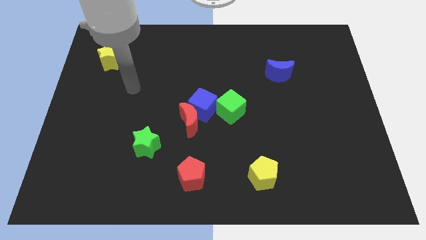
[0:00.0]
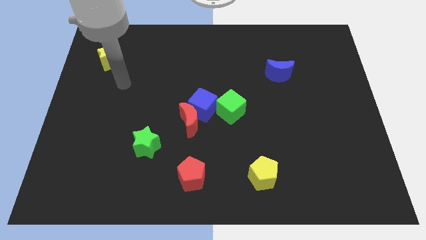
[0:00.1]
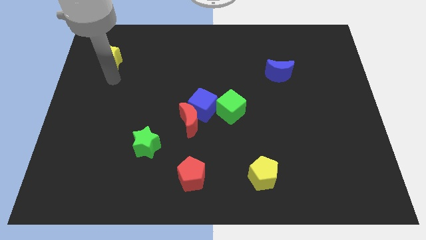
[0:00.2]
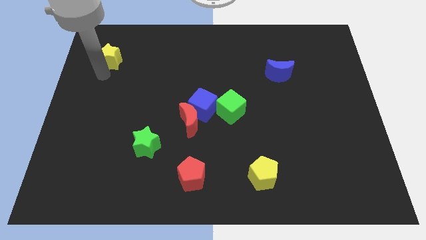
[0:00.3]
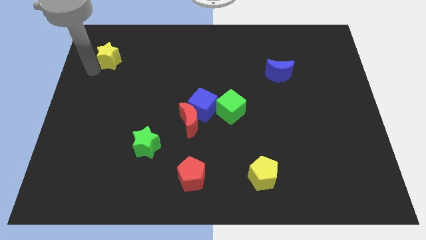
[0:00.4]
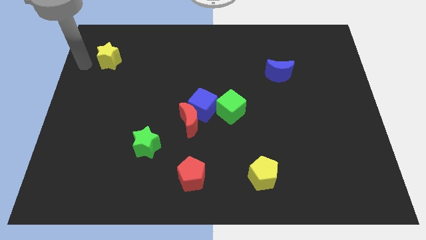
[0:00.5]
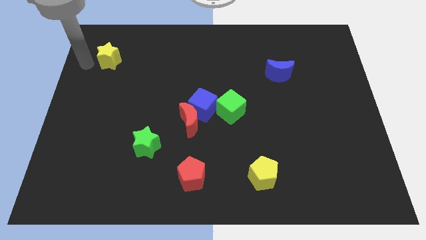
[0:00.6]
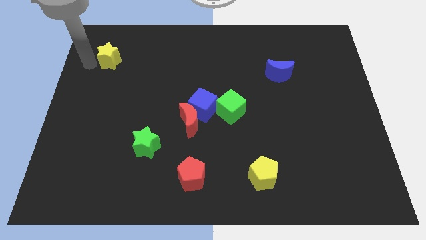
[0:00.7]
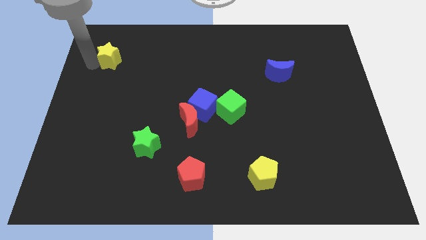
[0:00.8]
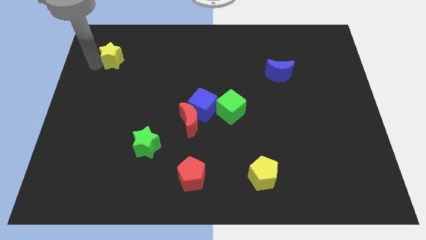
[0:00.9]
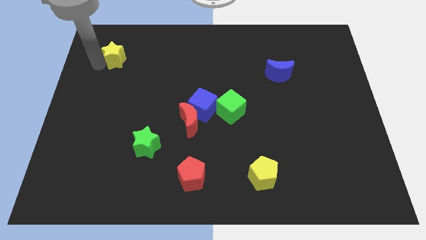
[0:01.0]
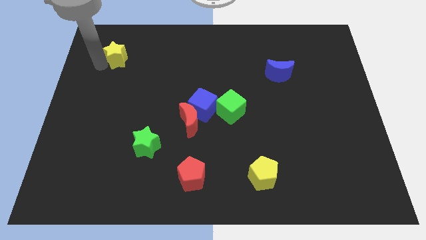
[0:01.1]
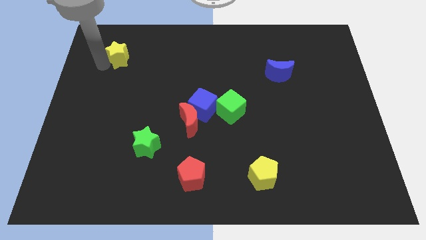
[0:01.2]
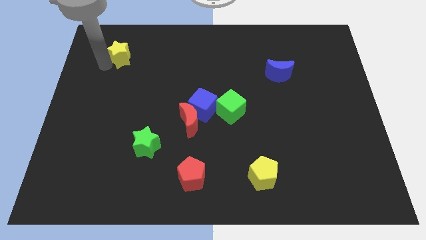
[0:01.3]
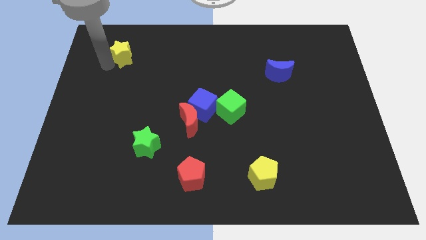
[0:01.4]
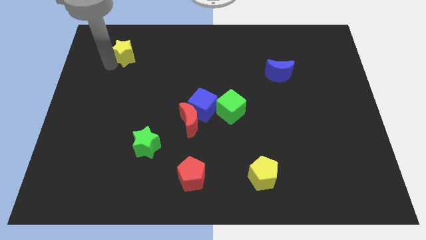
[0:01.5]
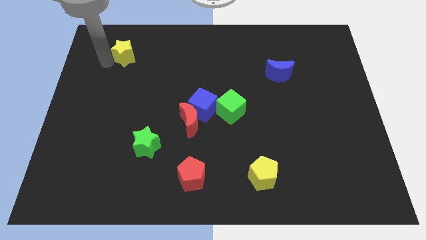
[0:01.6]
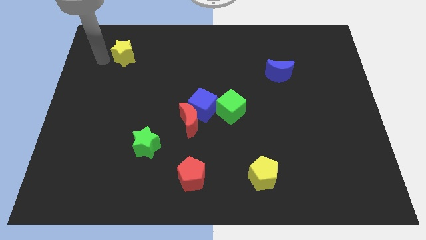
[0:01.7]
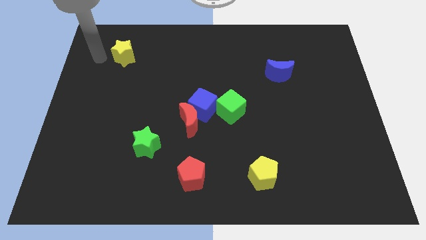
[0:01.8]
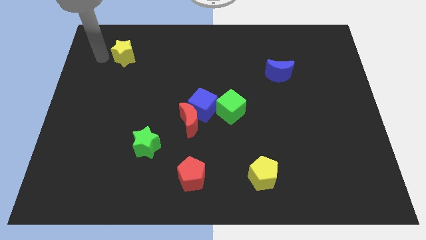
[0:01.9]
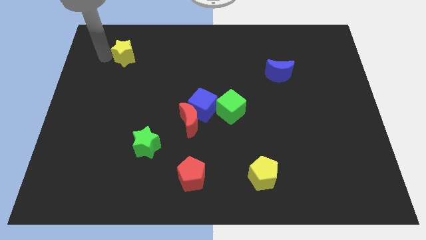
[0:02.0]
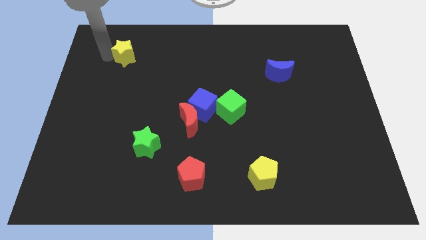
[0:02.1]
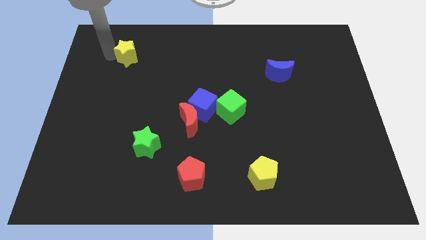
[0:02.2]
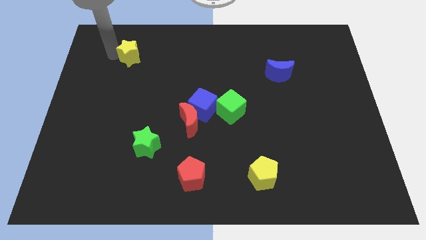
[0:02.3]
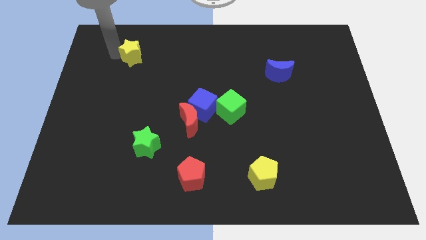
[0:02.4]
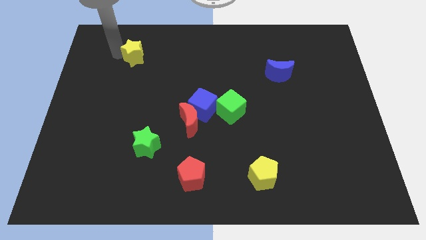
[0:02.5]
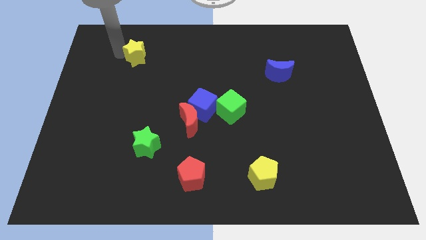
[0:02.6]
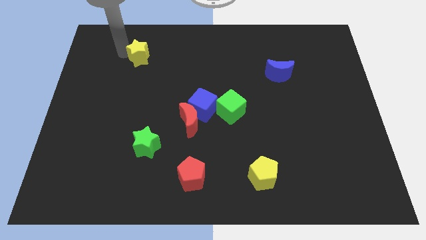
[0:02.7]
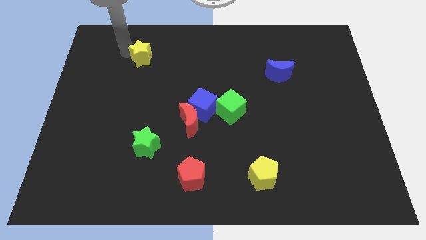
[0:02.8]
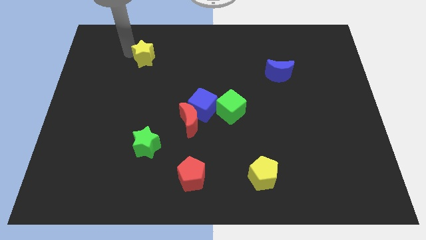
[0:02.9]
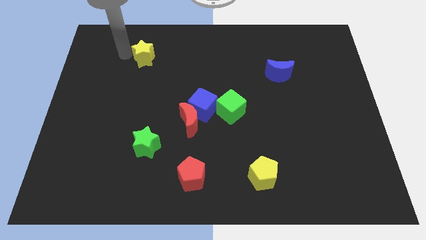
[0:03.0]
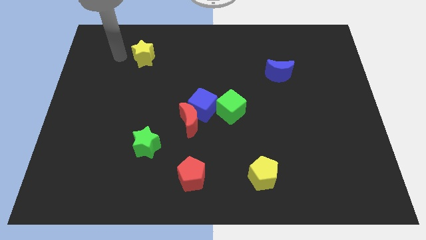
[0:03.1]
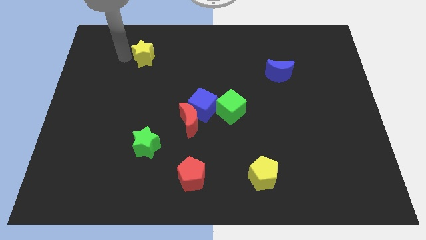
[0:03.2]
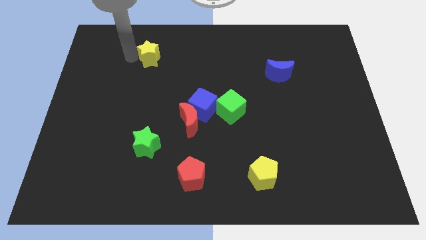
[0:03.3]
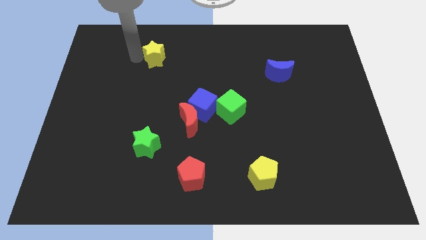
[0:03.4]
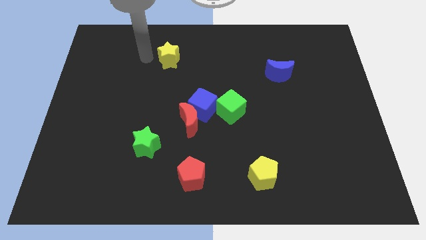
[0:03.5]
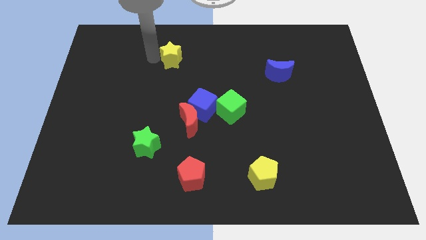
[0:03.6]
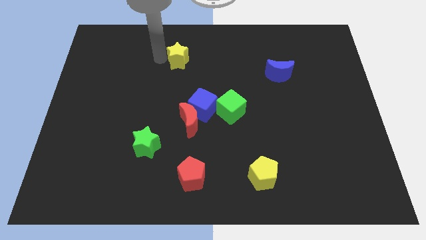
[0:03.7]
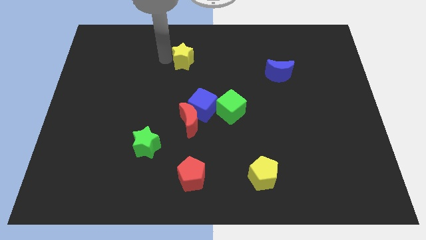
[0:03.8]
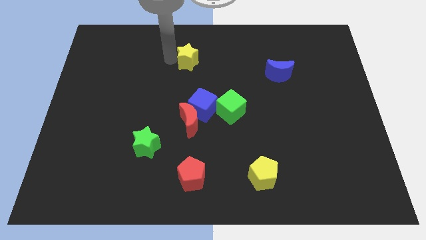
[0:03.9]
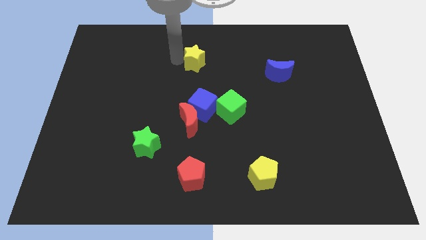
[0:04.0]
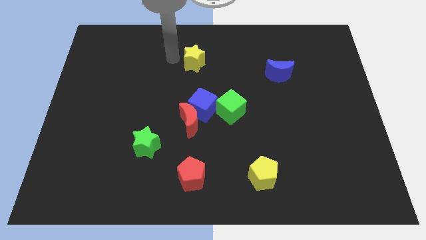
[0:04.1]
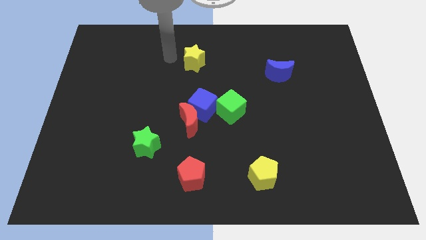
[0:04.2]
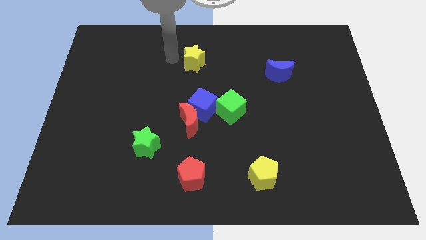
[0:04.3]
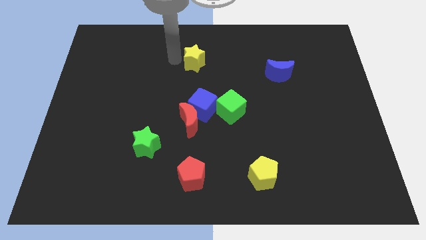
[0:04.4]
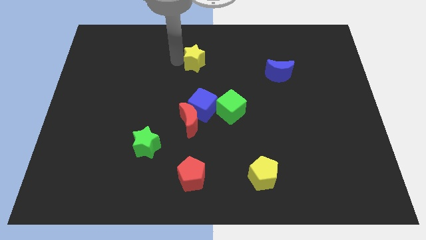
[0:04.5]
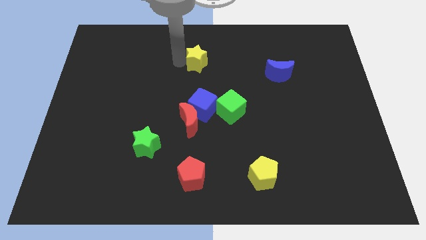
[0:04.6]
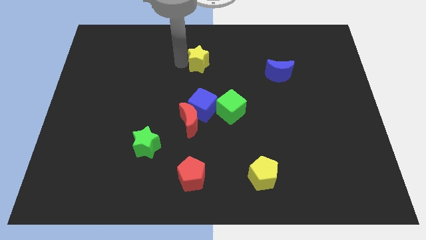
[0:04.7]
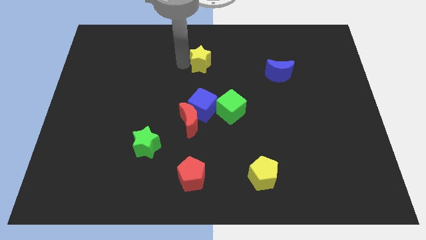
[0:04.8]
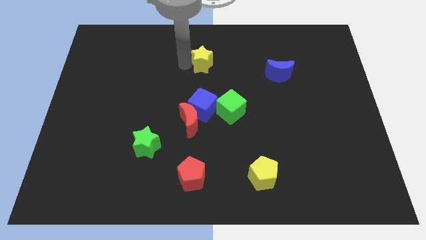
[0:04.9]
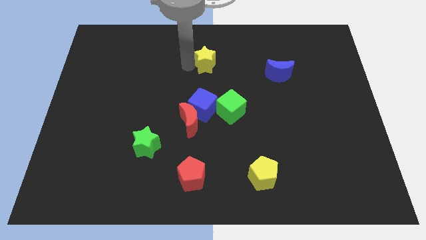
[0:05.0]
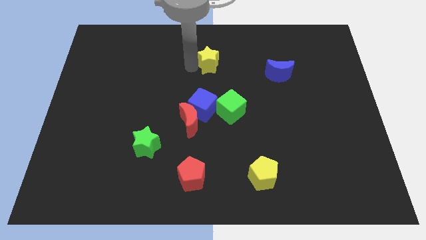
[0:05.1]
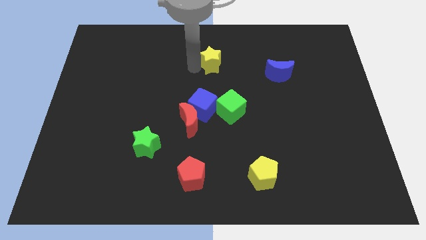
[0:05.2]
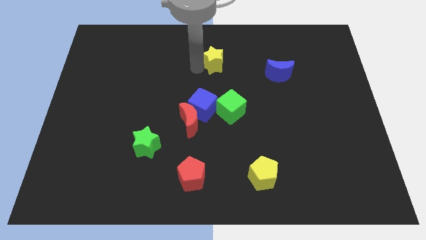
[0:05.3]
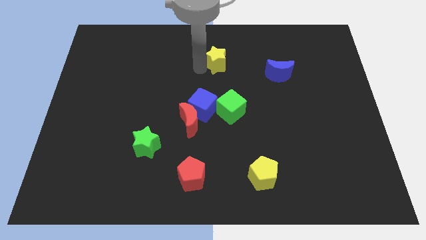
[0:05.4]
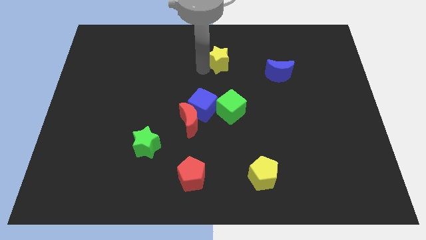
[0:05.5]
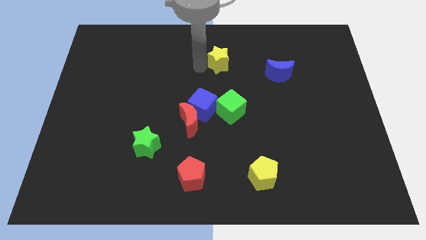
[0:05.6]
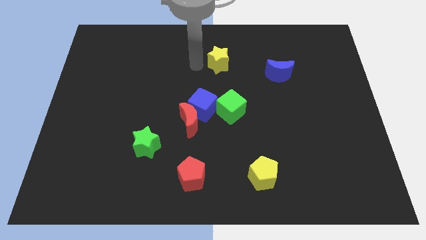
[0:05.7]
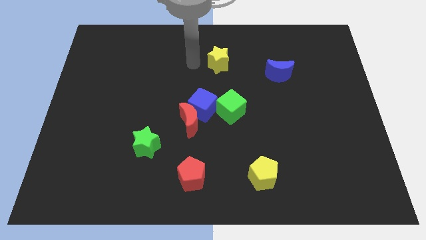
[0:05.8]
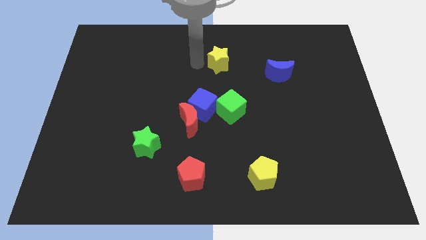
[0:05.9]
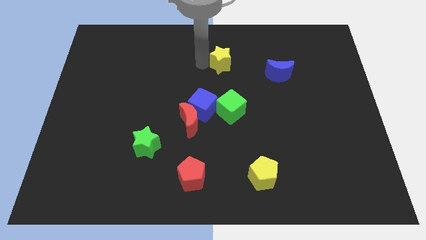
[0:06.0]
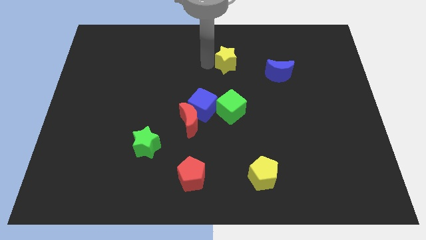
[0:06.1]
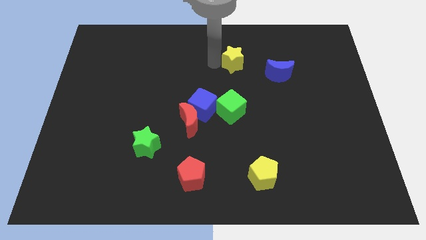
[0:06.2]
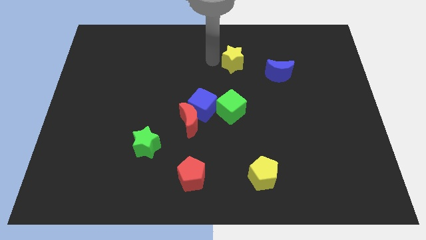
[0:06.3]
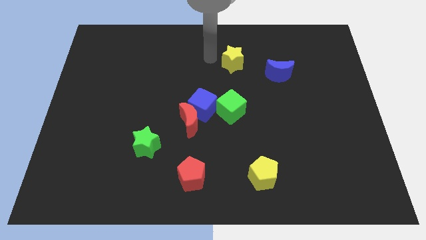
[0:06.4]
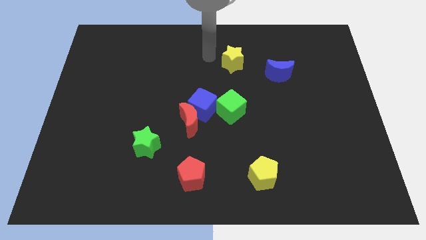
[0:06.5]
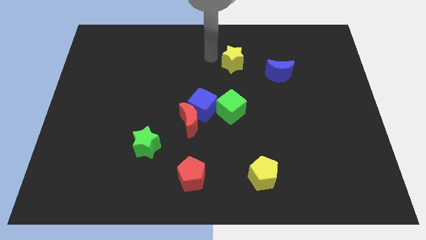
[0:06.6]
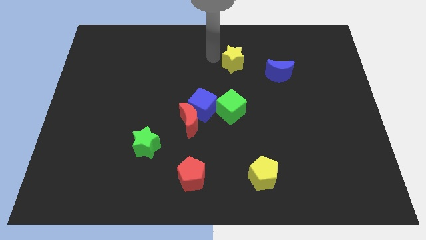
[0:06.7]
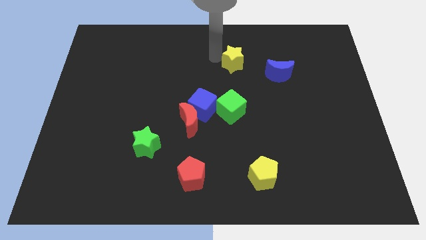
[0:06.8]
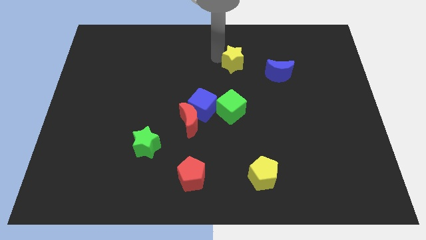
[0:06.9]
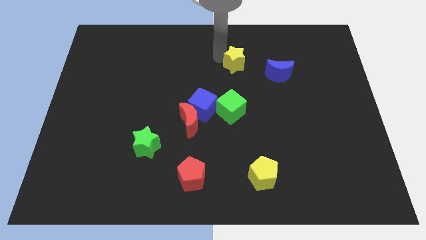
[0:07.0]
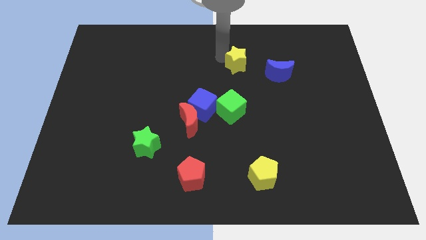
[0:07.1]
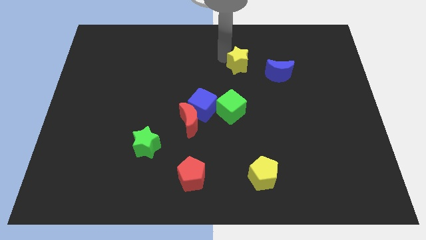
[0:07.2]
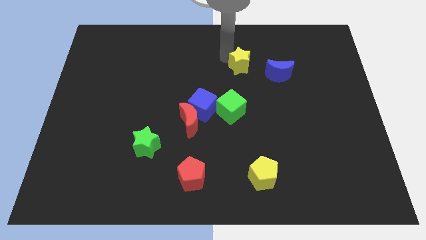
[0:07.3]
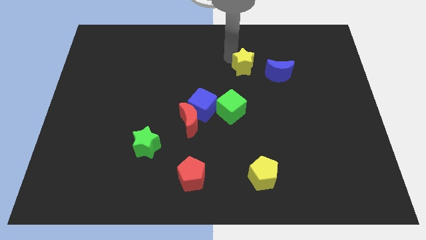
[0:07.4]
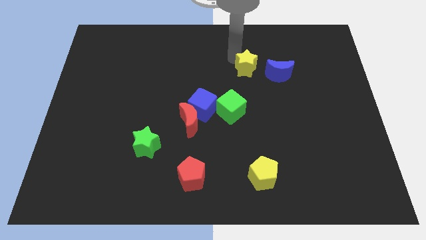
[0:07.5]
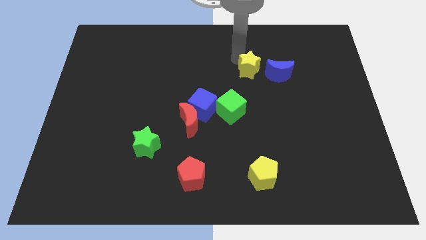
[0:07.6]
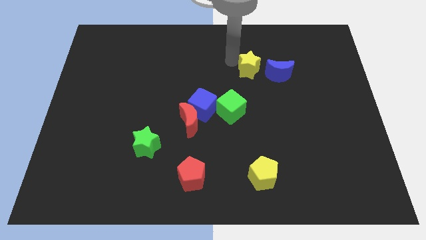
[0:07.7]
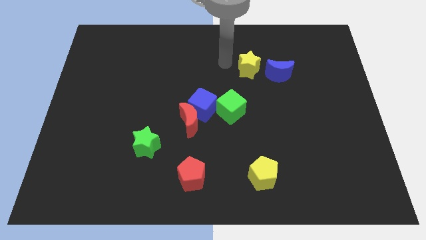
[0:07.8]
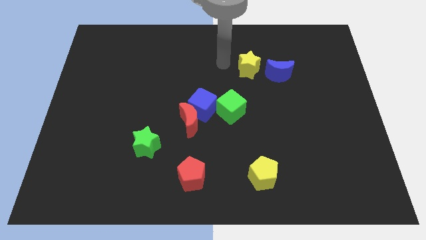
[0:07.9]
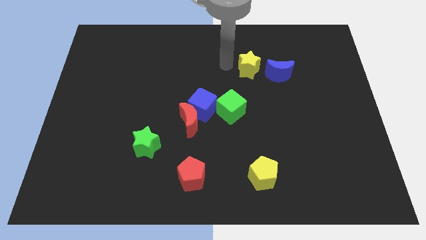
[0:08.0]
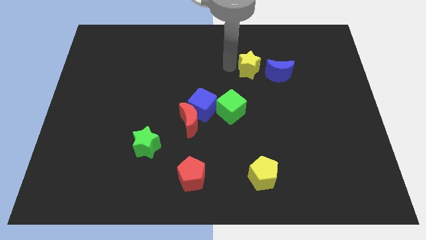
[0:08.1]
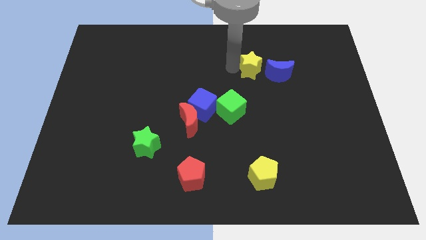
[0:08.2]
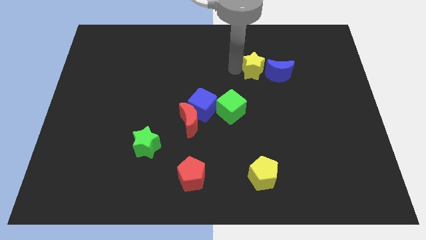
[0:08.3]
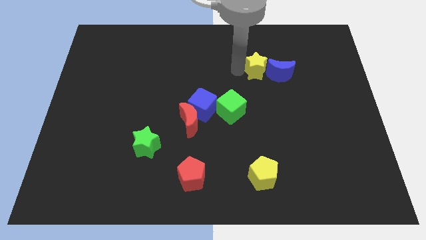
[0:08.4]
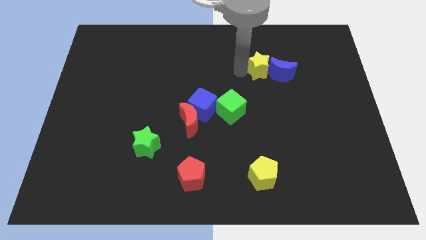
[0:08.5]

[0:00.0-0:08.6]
move the yellow star next to the blue moon
